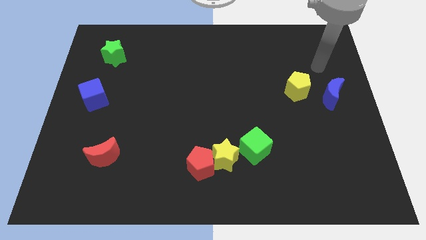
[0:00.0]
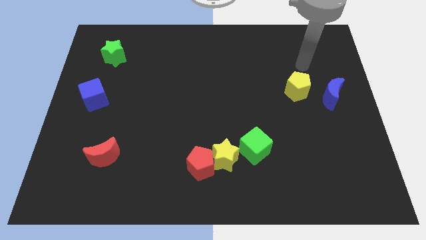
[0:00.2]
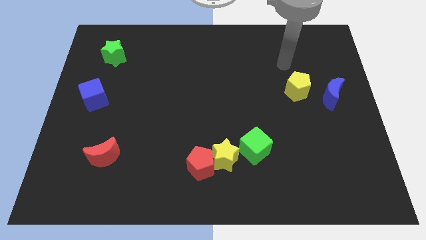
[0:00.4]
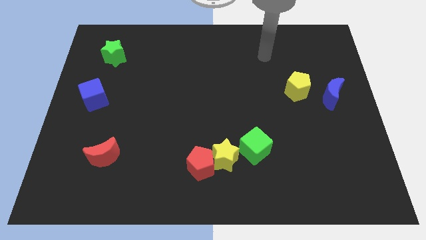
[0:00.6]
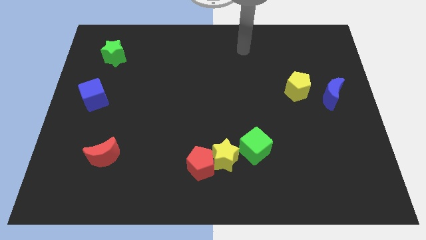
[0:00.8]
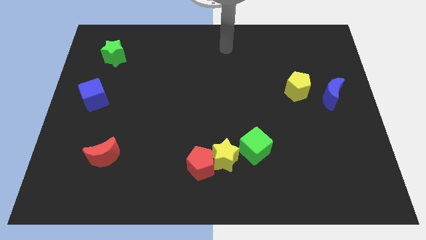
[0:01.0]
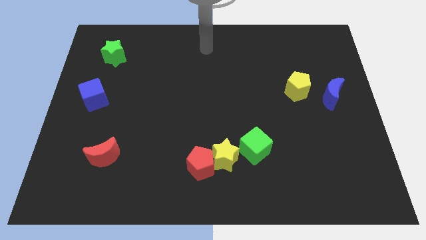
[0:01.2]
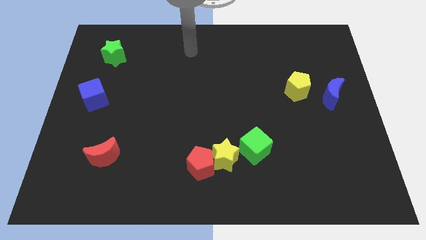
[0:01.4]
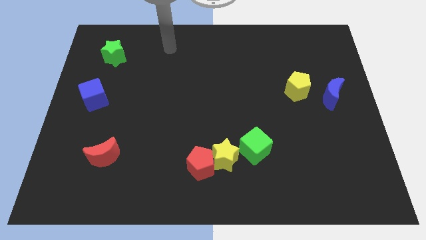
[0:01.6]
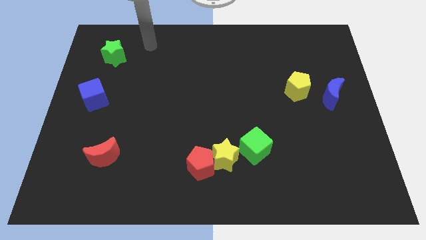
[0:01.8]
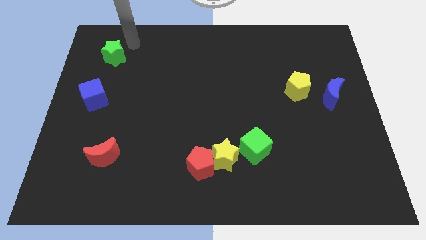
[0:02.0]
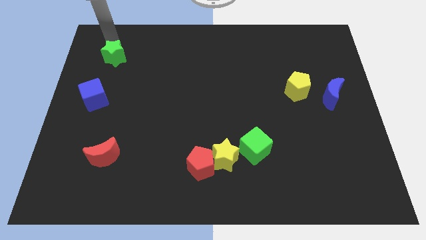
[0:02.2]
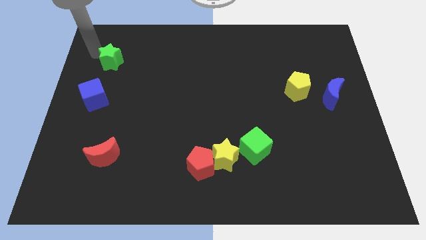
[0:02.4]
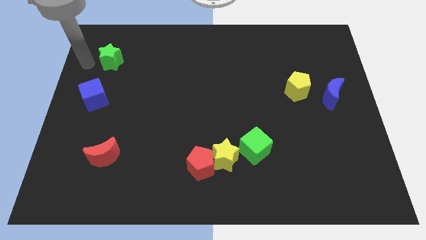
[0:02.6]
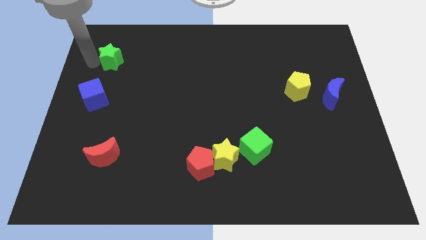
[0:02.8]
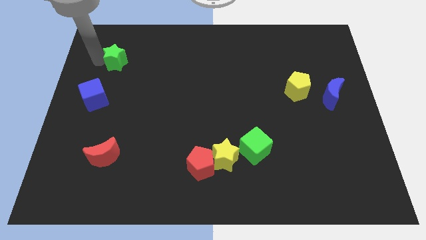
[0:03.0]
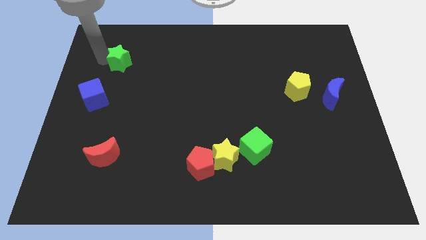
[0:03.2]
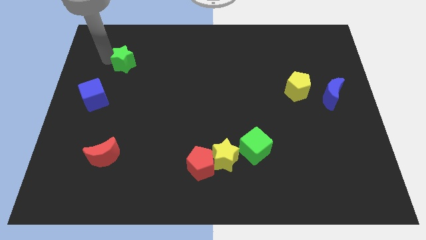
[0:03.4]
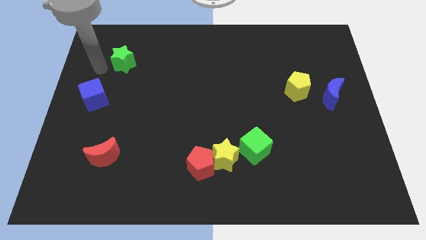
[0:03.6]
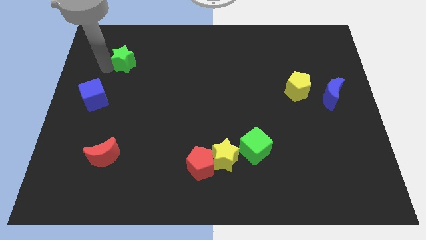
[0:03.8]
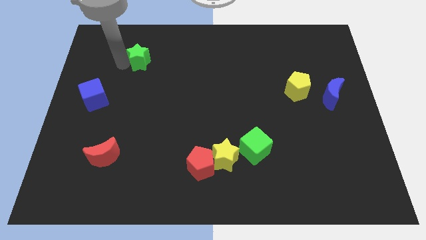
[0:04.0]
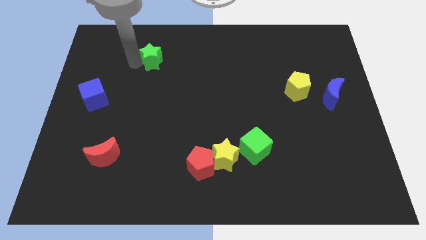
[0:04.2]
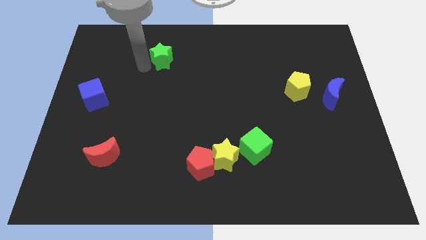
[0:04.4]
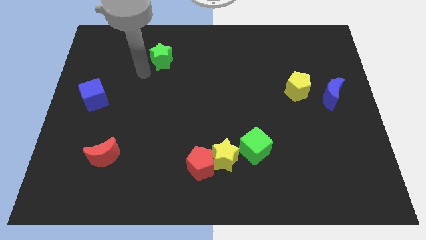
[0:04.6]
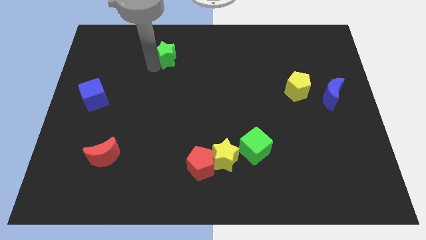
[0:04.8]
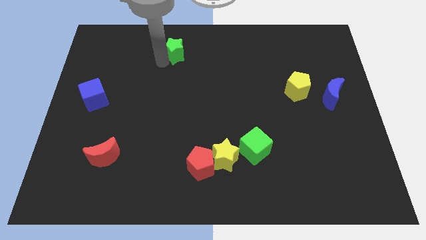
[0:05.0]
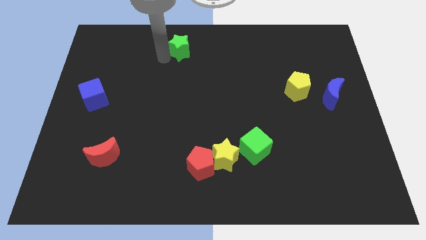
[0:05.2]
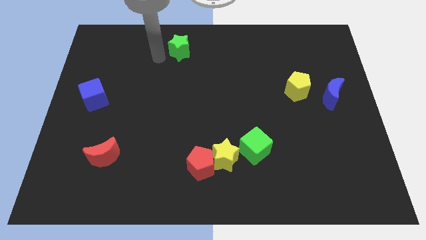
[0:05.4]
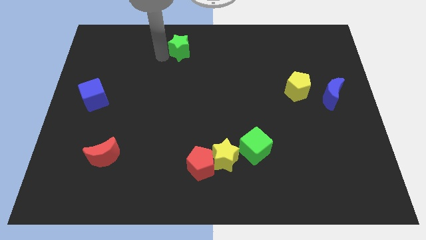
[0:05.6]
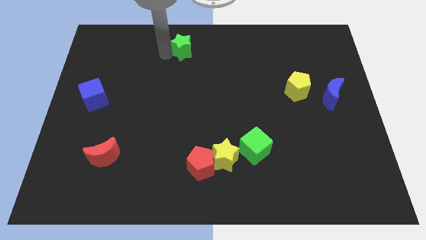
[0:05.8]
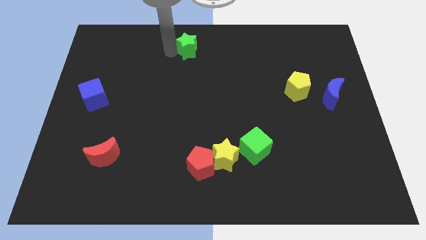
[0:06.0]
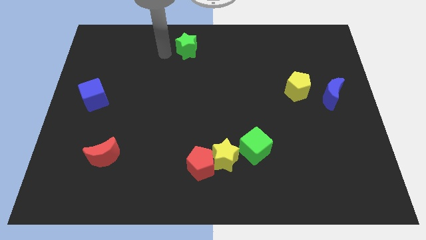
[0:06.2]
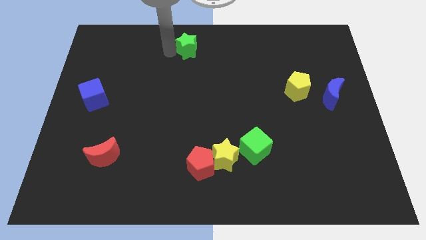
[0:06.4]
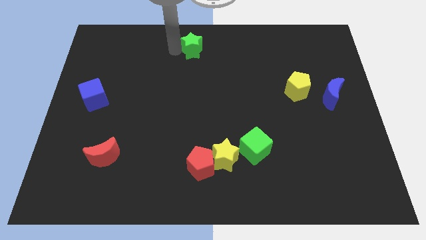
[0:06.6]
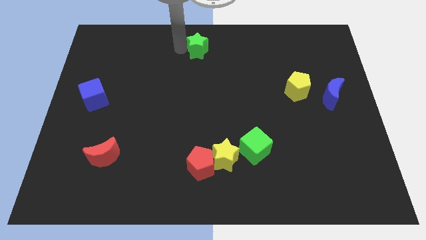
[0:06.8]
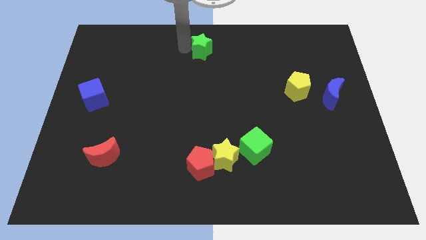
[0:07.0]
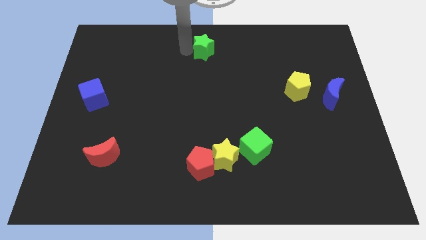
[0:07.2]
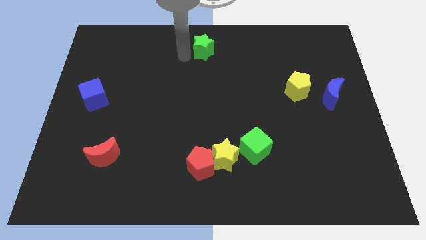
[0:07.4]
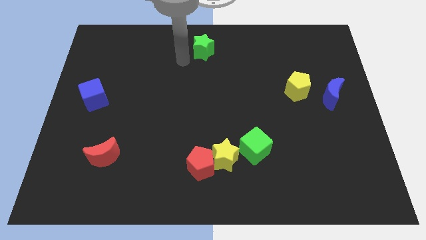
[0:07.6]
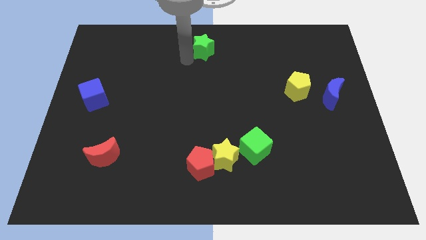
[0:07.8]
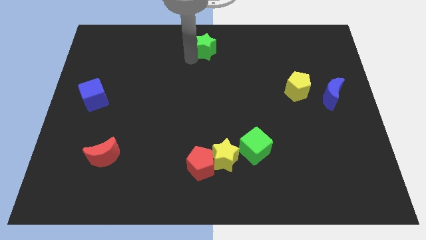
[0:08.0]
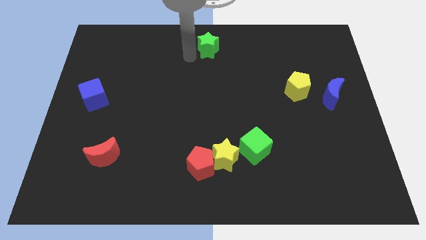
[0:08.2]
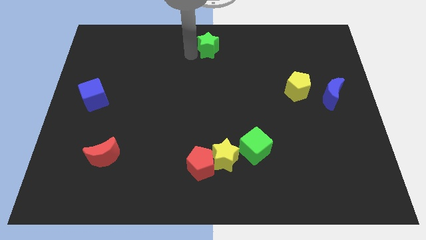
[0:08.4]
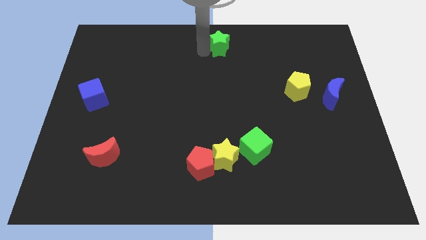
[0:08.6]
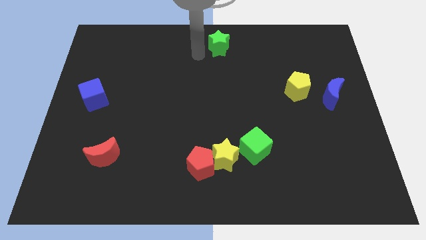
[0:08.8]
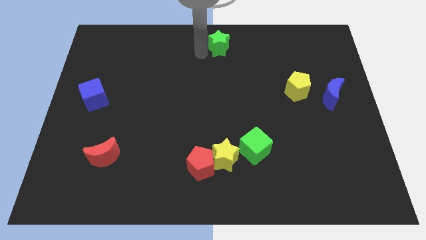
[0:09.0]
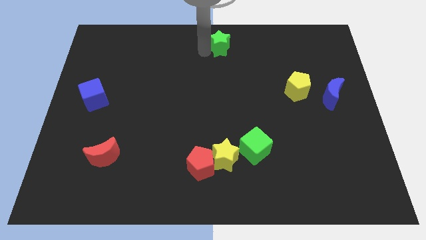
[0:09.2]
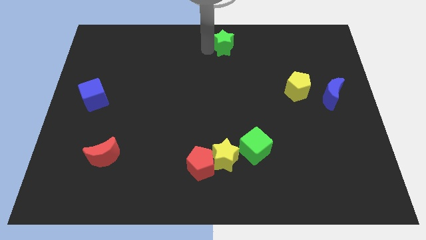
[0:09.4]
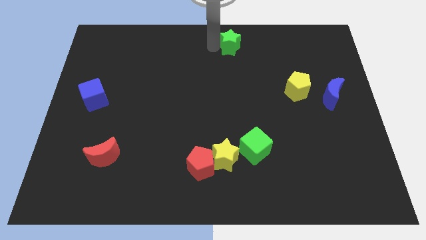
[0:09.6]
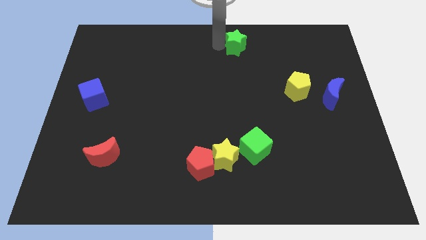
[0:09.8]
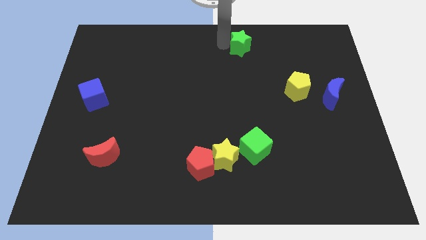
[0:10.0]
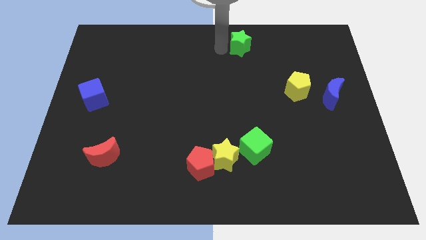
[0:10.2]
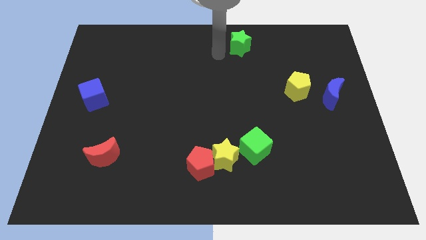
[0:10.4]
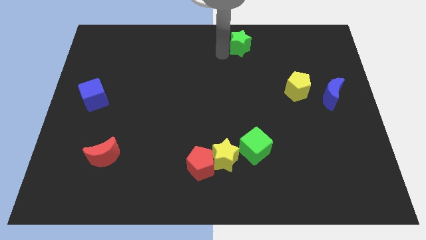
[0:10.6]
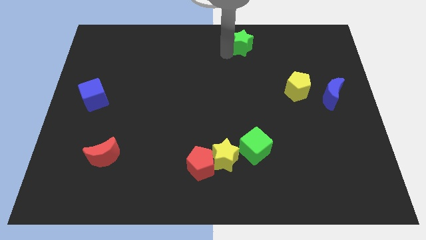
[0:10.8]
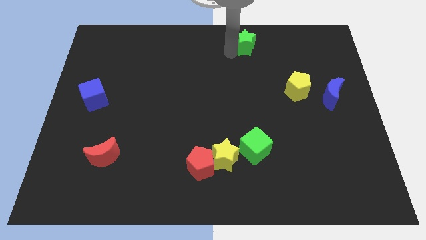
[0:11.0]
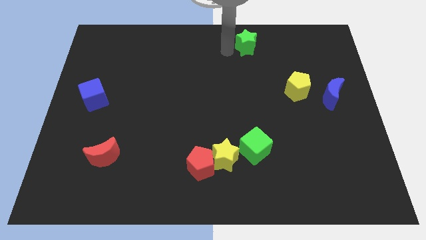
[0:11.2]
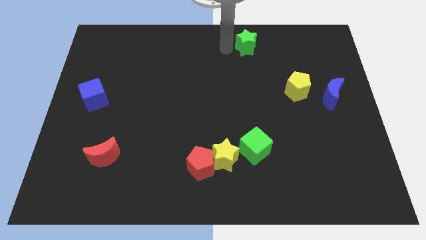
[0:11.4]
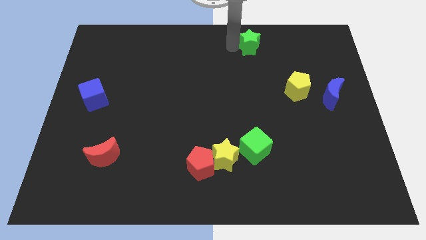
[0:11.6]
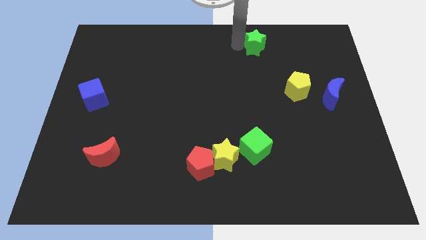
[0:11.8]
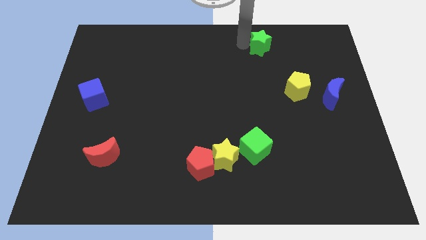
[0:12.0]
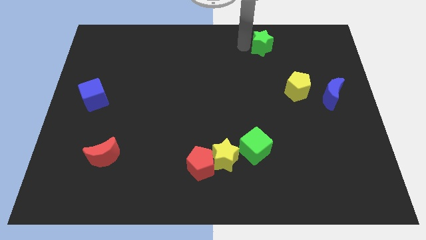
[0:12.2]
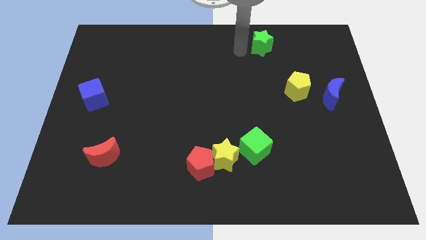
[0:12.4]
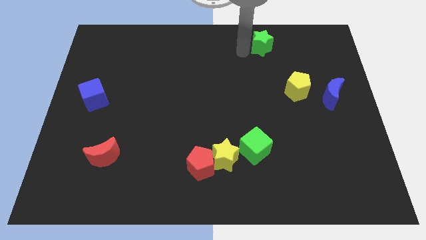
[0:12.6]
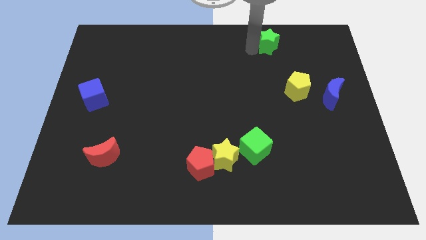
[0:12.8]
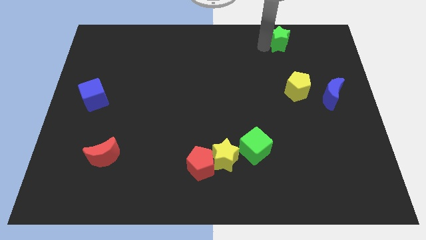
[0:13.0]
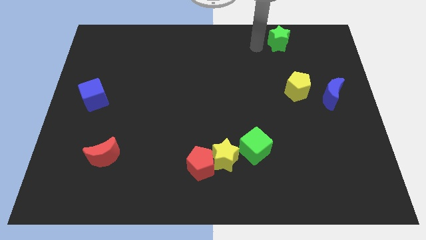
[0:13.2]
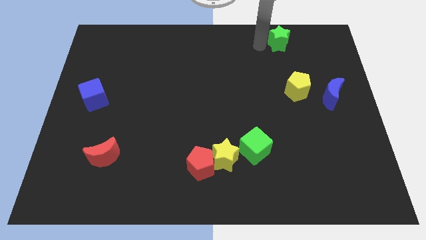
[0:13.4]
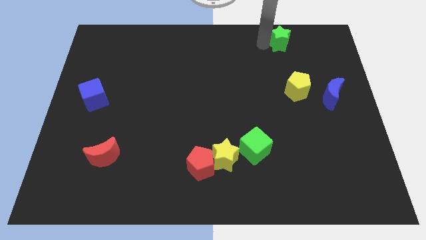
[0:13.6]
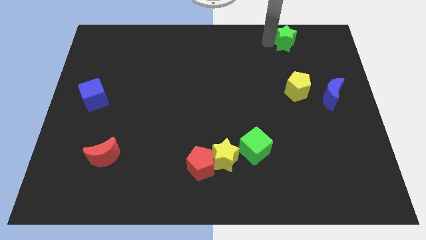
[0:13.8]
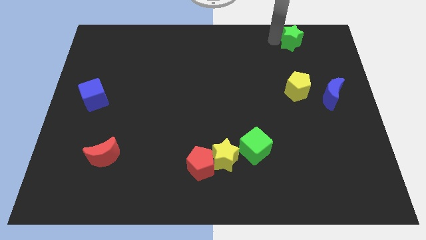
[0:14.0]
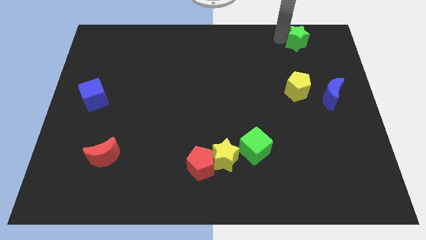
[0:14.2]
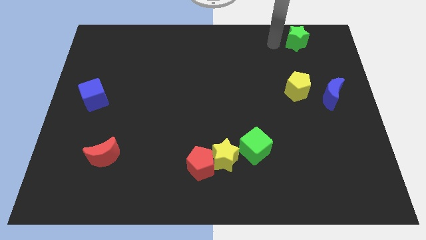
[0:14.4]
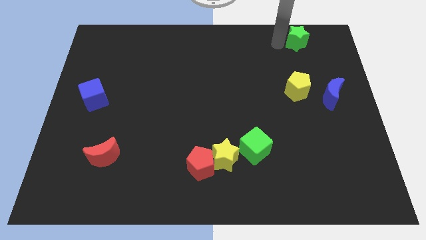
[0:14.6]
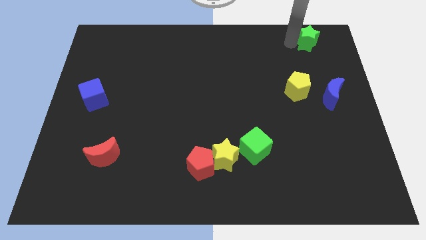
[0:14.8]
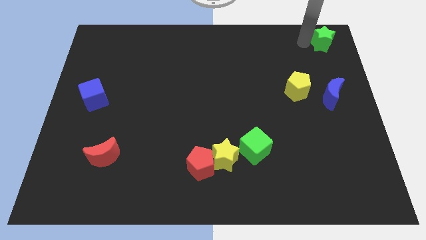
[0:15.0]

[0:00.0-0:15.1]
push the green star to the top right
